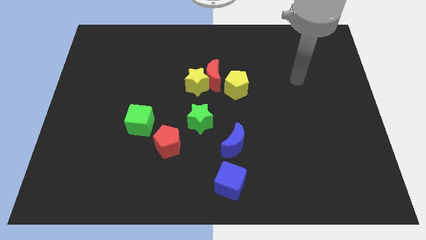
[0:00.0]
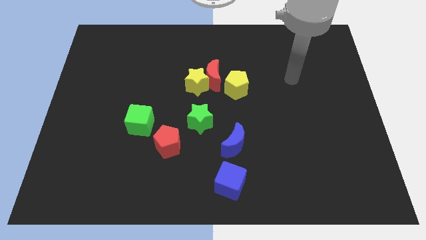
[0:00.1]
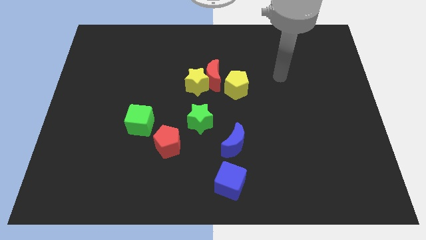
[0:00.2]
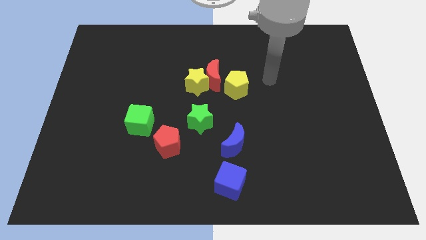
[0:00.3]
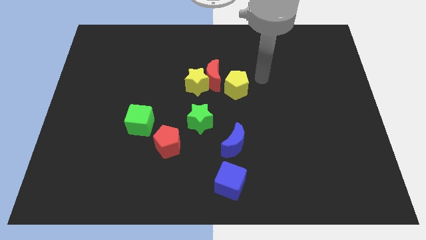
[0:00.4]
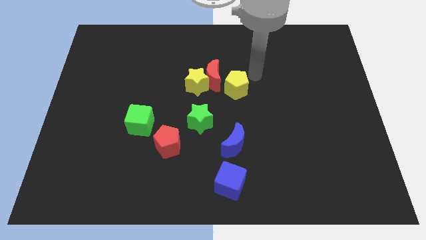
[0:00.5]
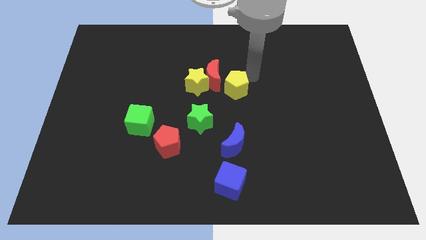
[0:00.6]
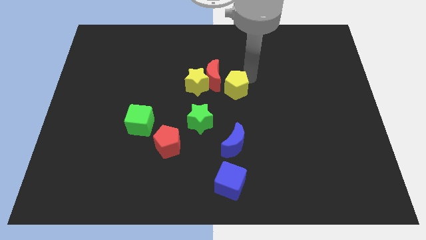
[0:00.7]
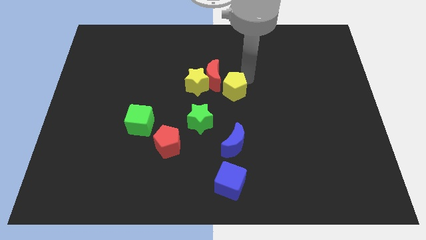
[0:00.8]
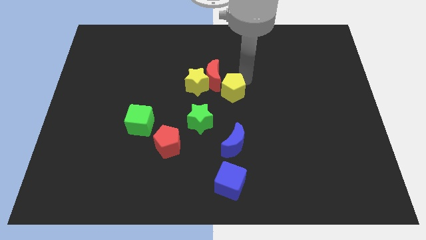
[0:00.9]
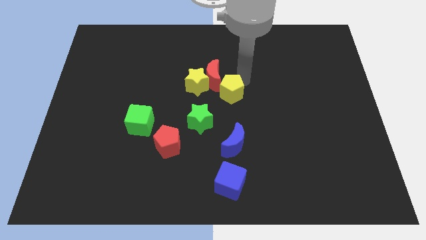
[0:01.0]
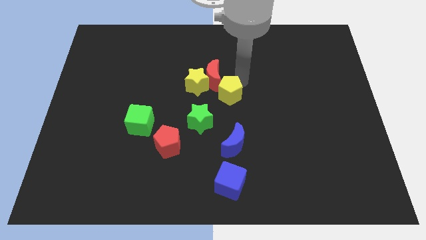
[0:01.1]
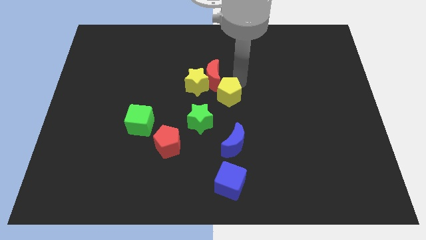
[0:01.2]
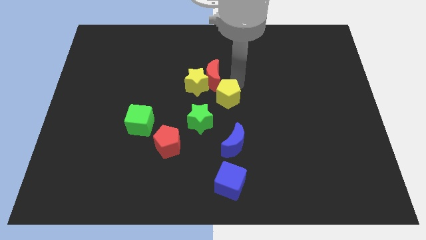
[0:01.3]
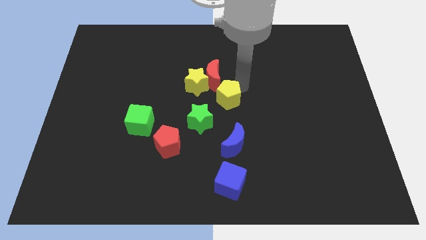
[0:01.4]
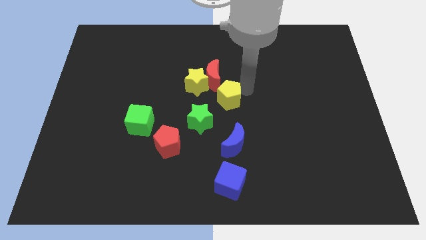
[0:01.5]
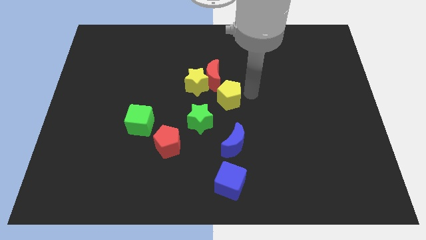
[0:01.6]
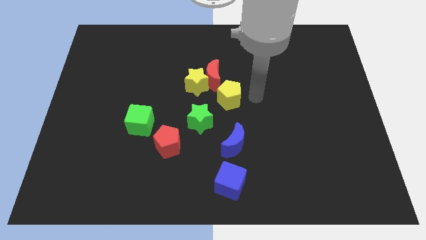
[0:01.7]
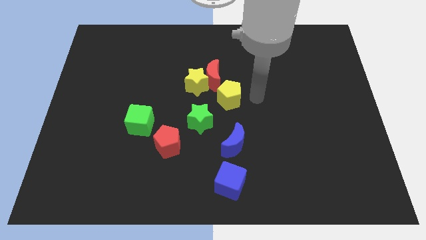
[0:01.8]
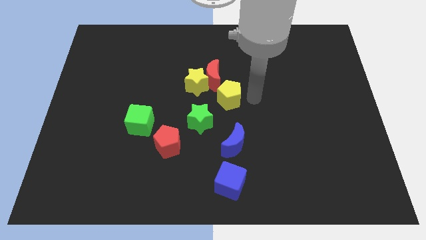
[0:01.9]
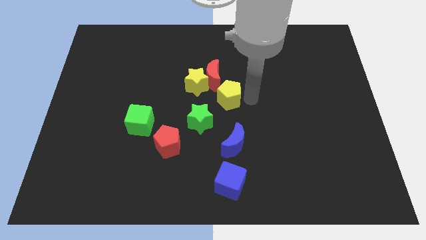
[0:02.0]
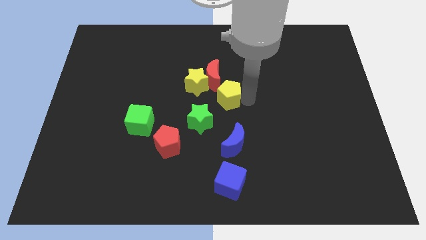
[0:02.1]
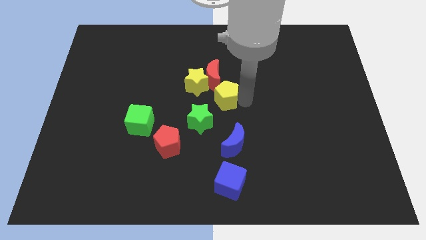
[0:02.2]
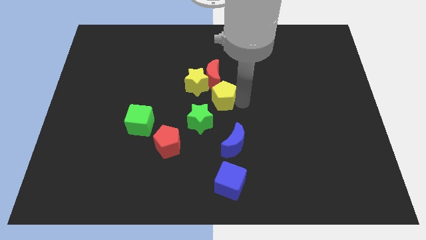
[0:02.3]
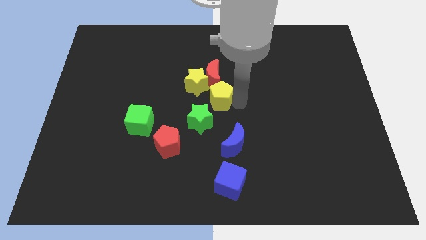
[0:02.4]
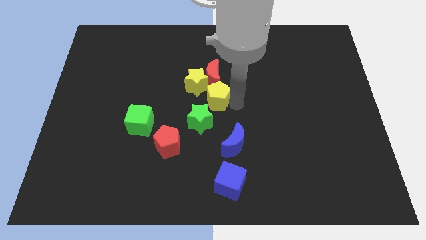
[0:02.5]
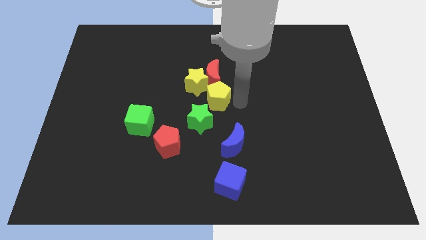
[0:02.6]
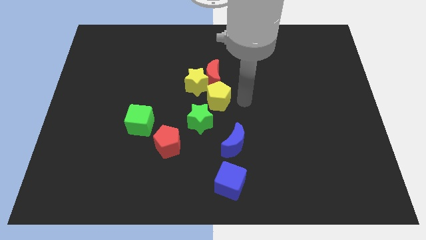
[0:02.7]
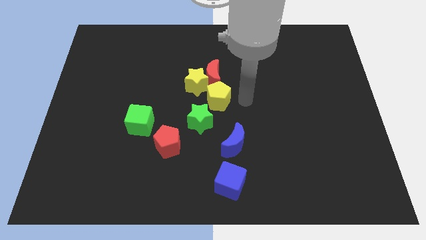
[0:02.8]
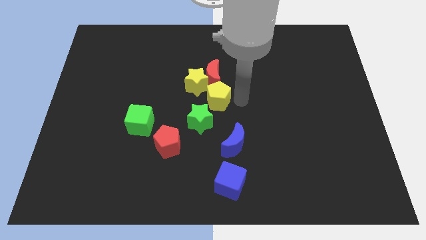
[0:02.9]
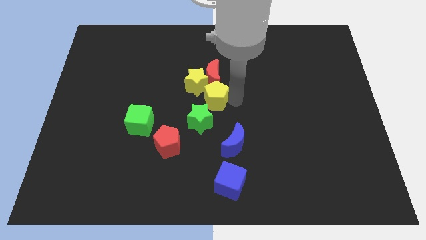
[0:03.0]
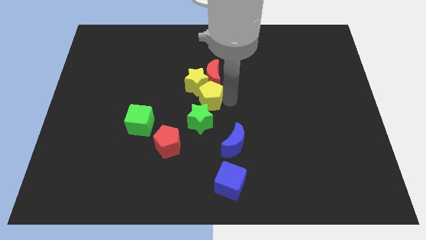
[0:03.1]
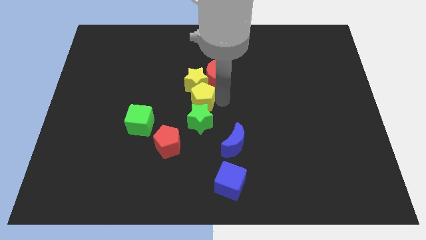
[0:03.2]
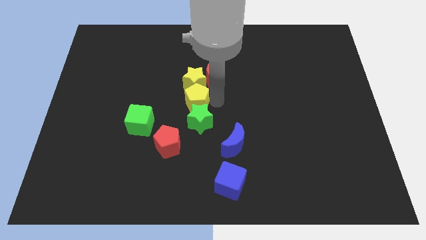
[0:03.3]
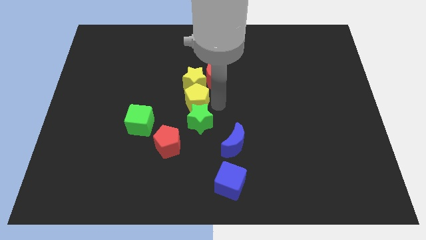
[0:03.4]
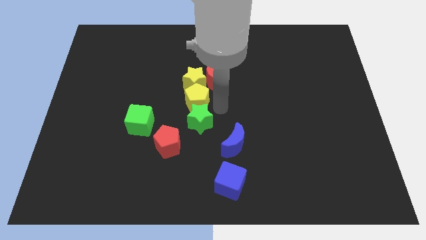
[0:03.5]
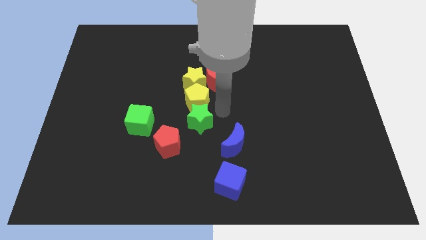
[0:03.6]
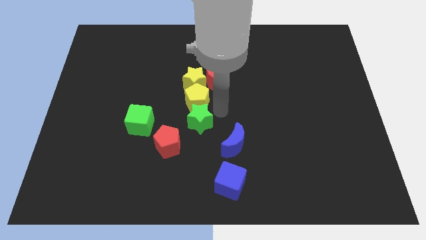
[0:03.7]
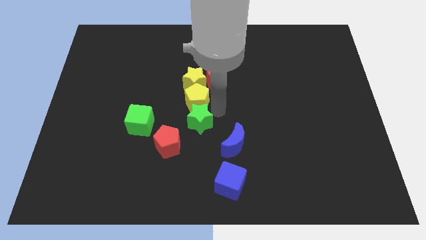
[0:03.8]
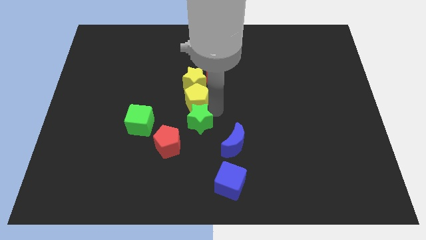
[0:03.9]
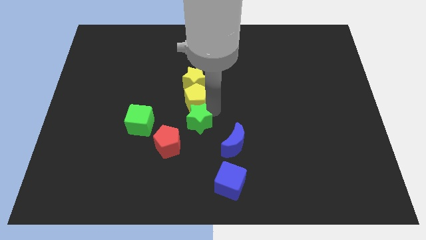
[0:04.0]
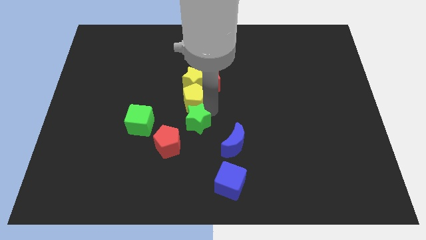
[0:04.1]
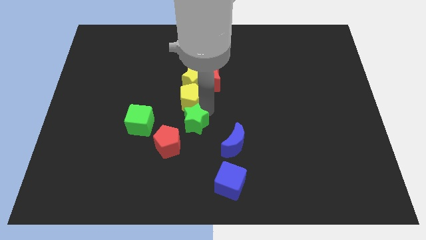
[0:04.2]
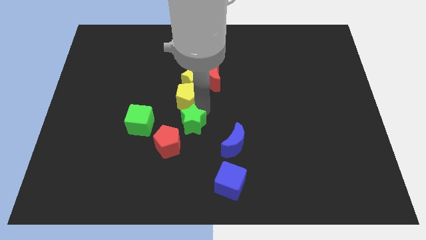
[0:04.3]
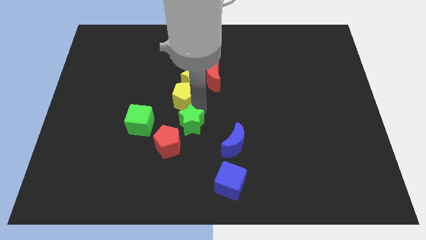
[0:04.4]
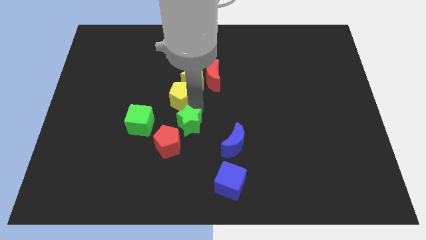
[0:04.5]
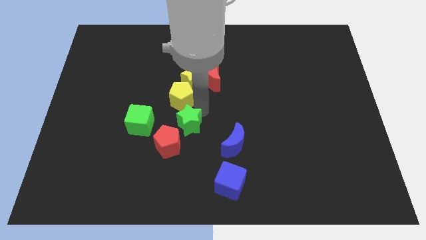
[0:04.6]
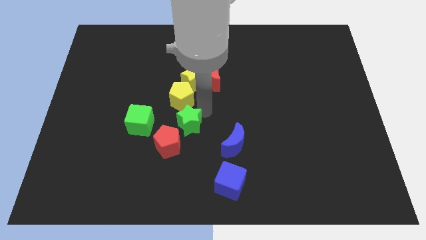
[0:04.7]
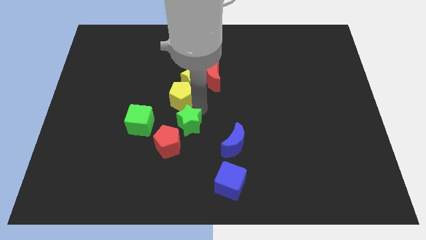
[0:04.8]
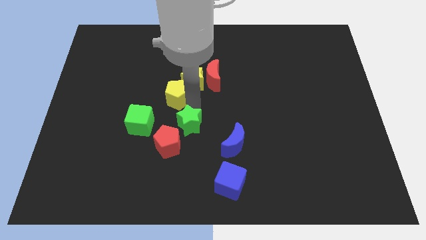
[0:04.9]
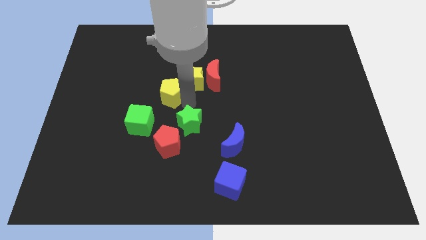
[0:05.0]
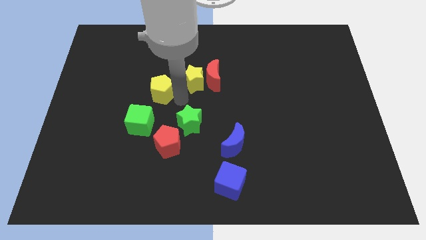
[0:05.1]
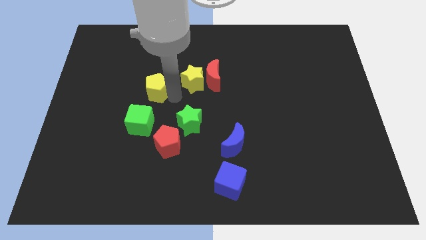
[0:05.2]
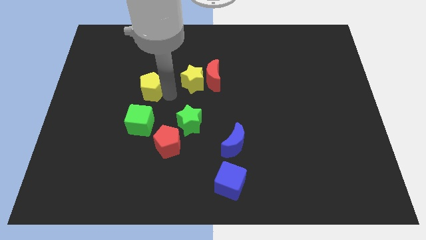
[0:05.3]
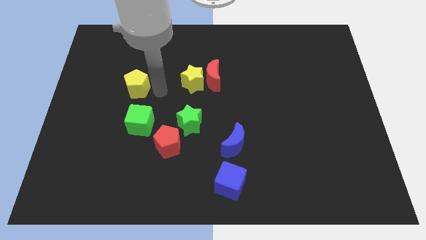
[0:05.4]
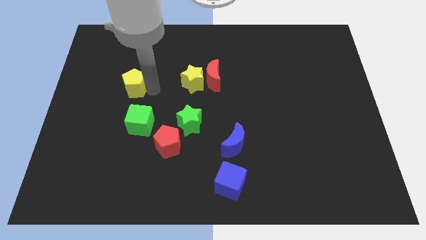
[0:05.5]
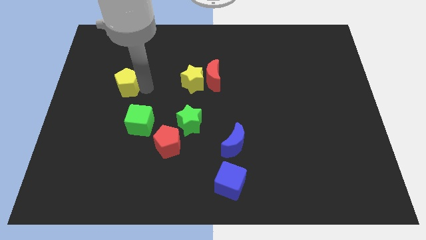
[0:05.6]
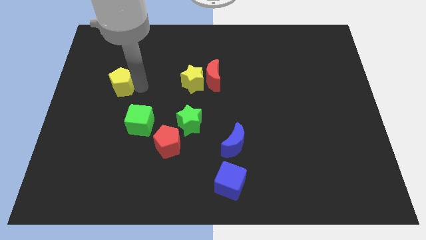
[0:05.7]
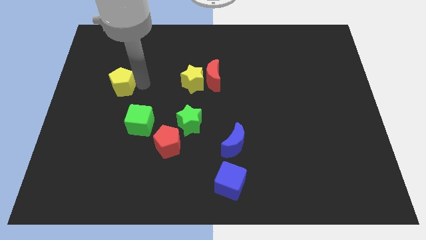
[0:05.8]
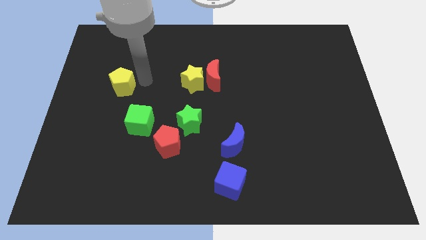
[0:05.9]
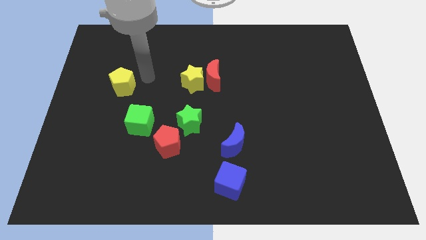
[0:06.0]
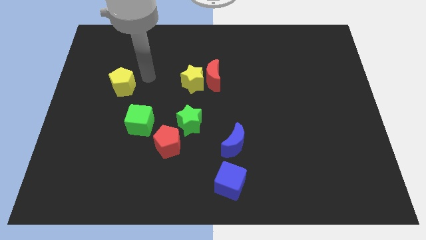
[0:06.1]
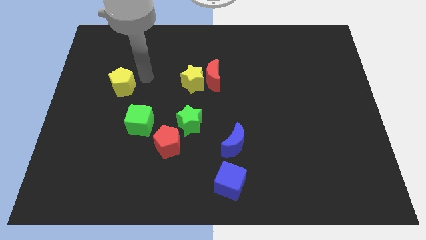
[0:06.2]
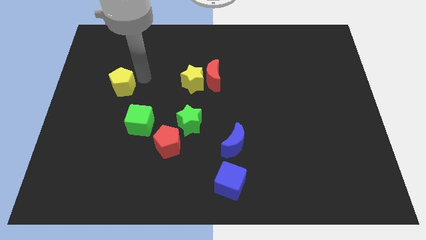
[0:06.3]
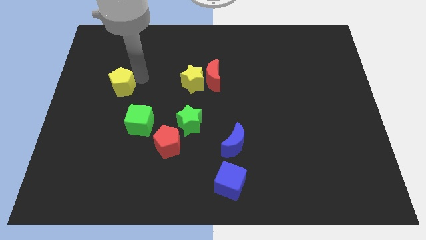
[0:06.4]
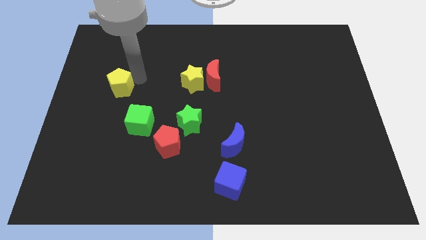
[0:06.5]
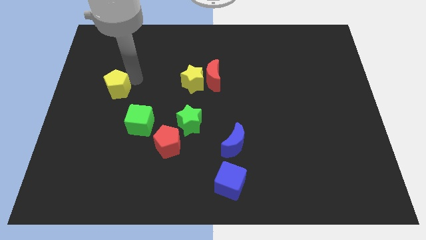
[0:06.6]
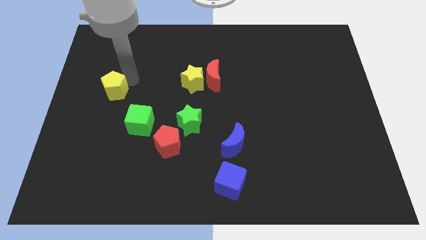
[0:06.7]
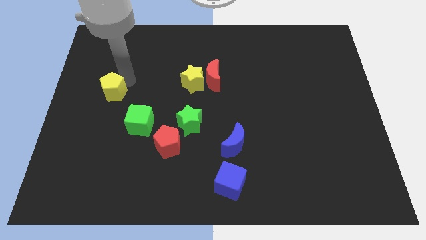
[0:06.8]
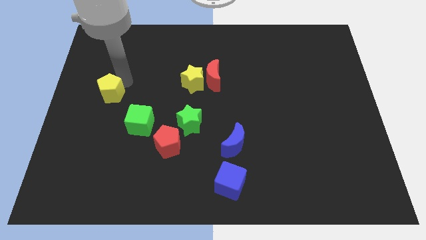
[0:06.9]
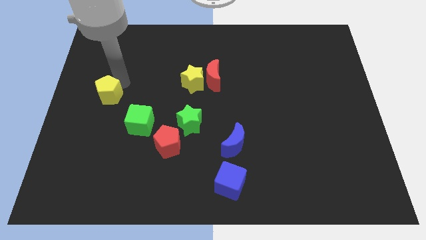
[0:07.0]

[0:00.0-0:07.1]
slide the yellow pentagon to the left side of the board
